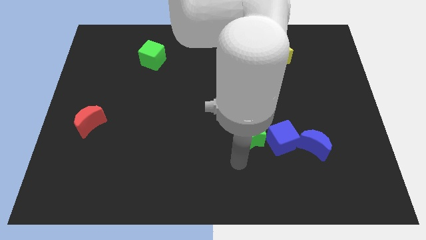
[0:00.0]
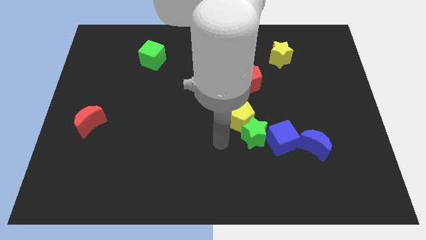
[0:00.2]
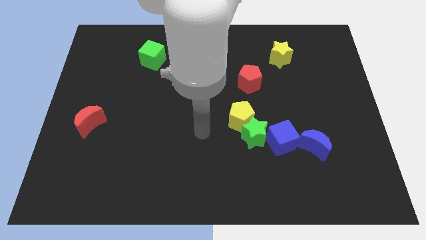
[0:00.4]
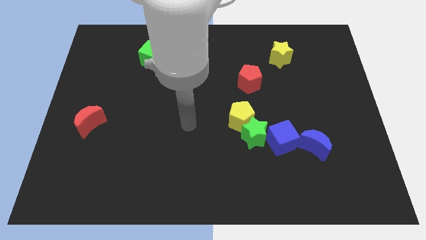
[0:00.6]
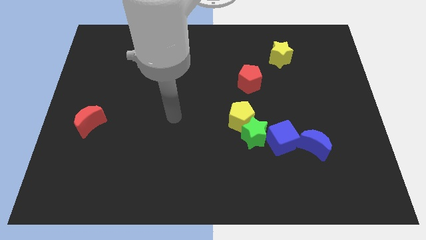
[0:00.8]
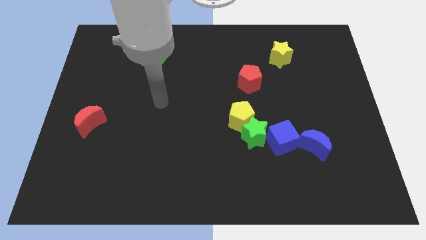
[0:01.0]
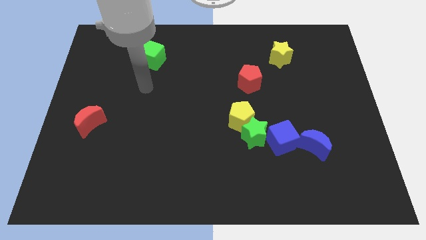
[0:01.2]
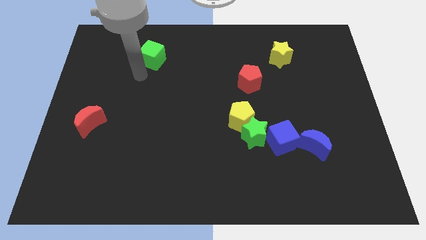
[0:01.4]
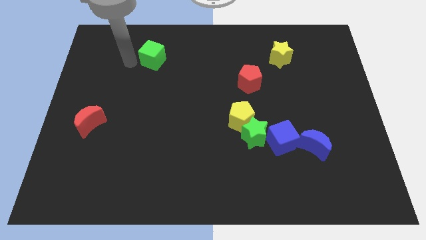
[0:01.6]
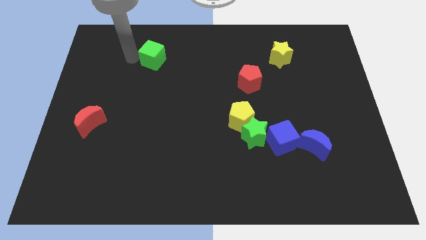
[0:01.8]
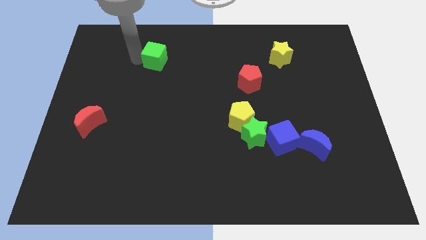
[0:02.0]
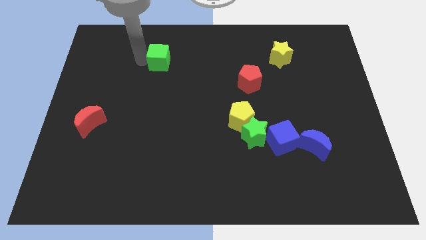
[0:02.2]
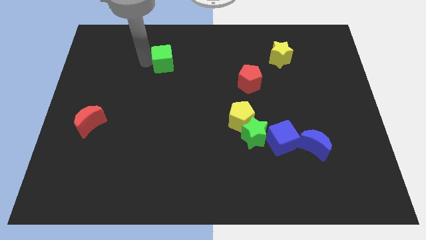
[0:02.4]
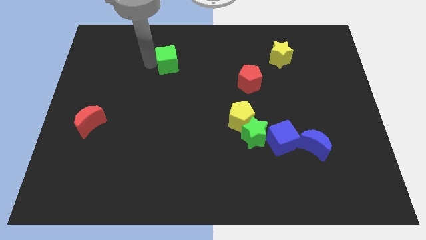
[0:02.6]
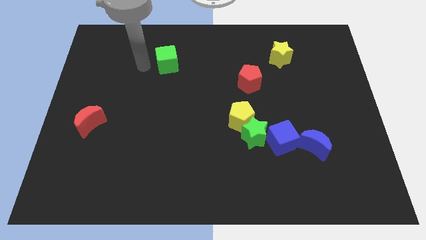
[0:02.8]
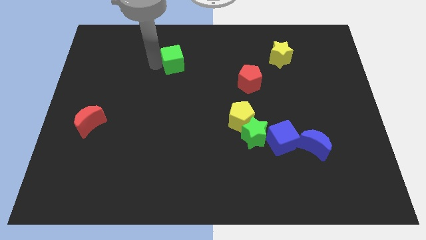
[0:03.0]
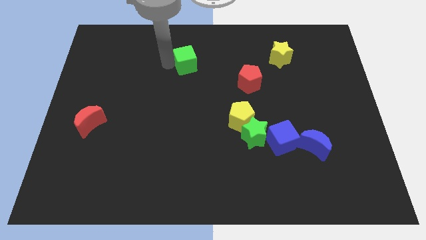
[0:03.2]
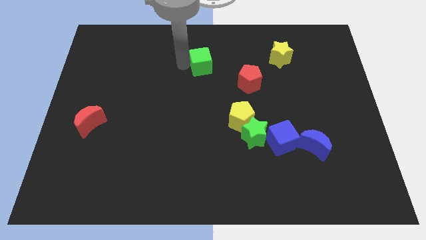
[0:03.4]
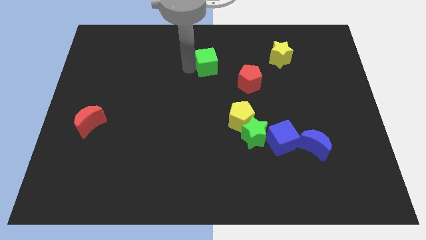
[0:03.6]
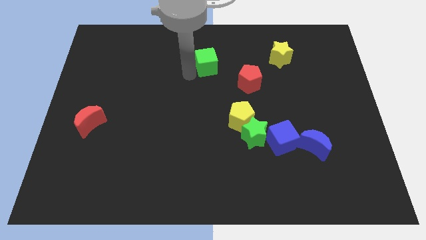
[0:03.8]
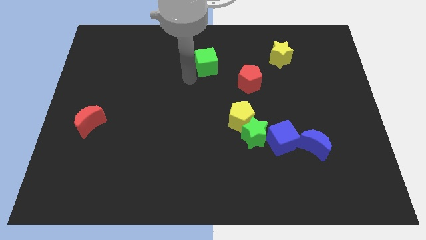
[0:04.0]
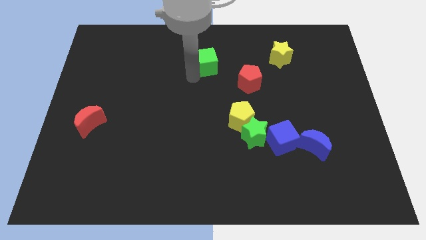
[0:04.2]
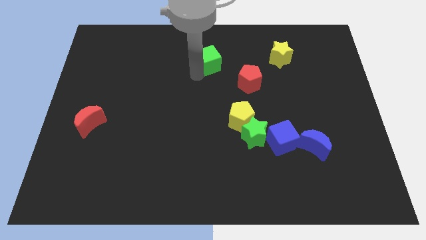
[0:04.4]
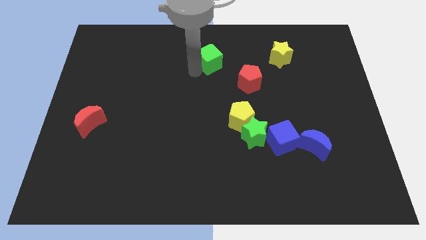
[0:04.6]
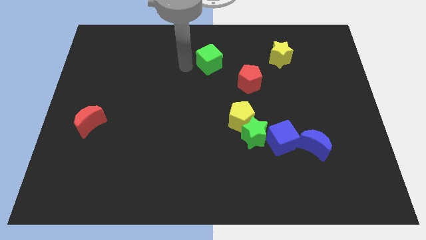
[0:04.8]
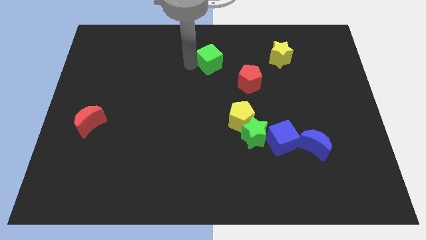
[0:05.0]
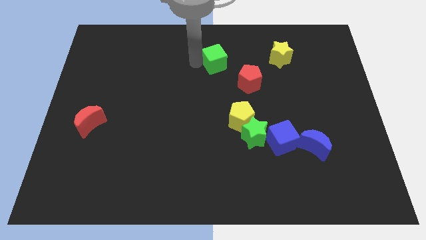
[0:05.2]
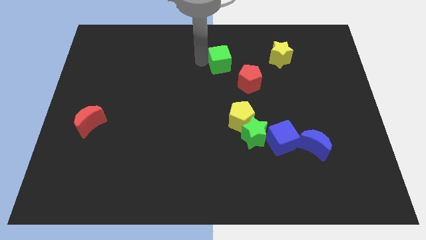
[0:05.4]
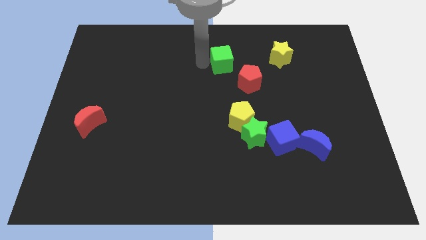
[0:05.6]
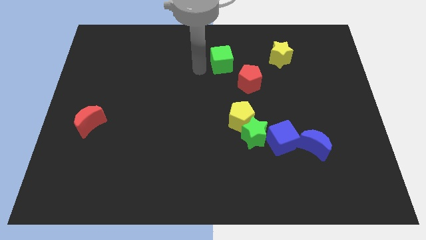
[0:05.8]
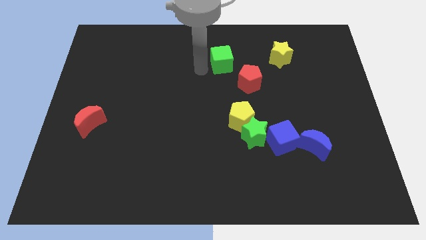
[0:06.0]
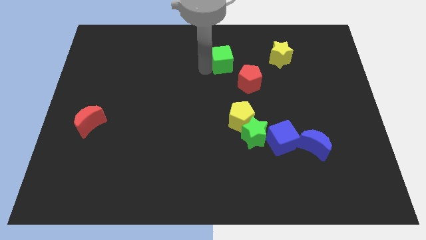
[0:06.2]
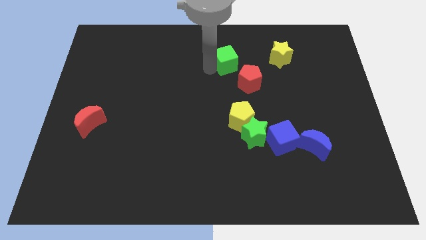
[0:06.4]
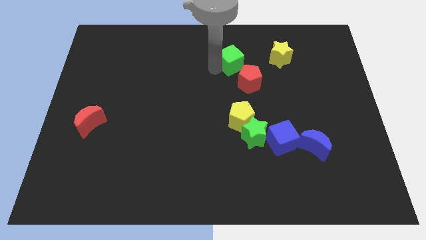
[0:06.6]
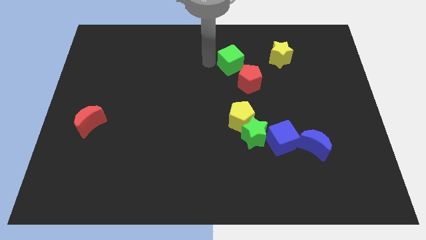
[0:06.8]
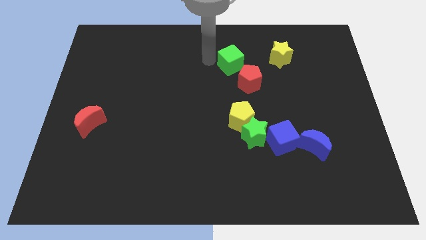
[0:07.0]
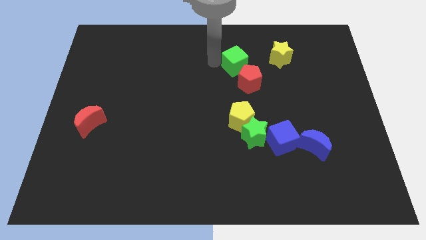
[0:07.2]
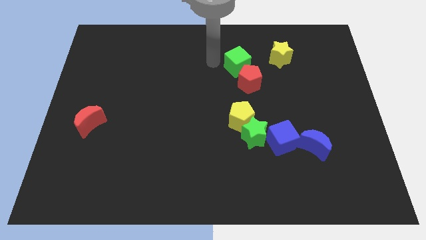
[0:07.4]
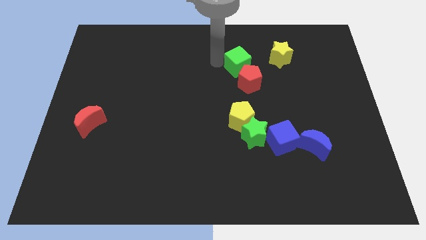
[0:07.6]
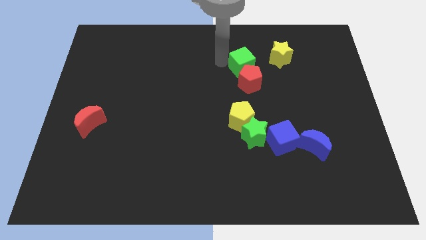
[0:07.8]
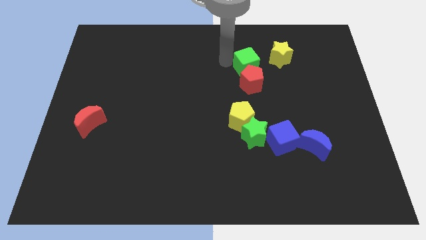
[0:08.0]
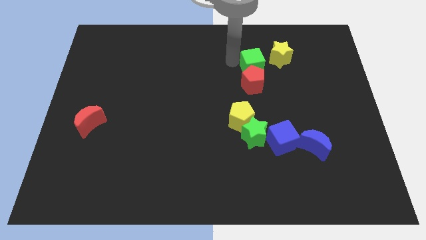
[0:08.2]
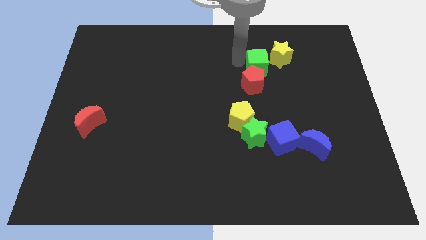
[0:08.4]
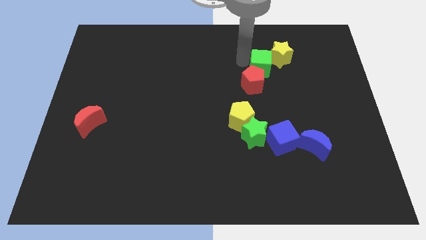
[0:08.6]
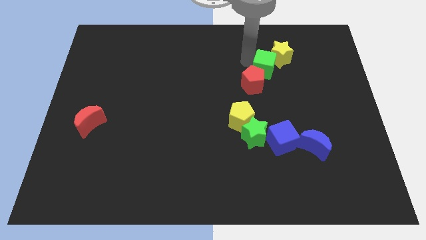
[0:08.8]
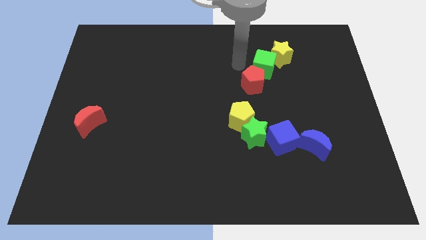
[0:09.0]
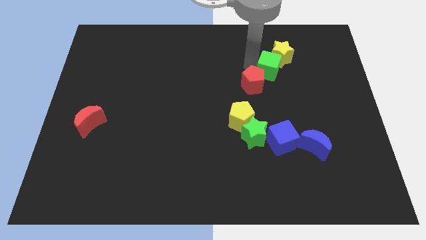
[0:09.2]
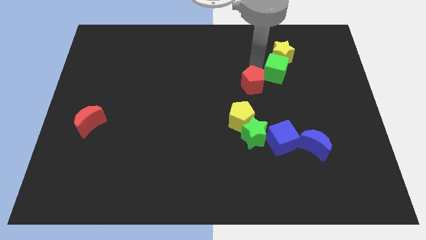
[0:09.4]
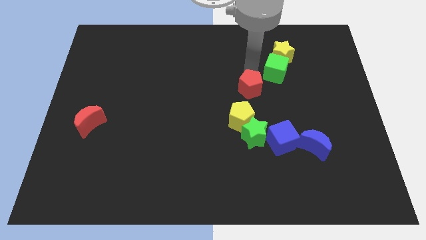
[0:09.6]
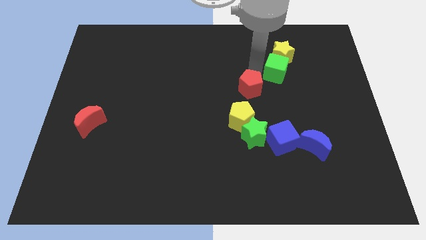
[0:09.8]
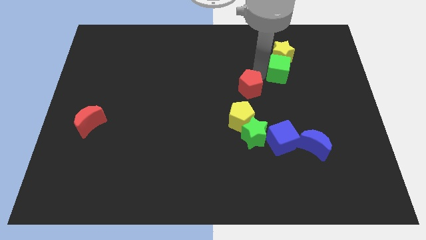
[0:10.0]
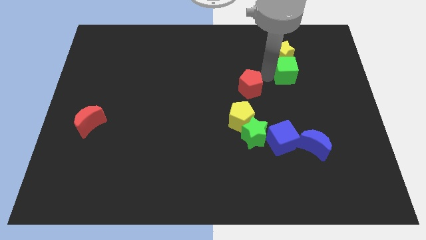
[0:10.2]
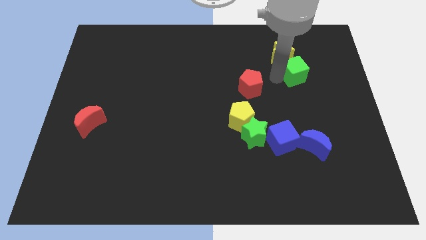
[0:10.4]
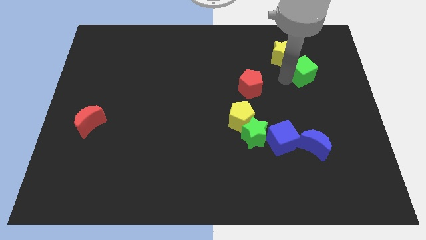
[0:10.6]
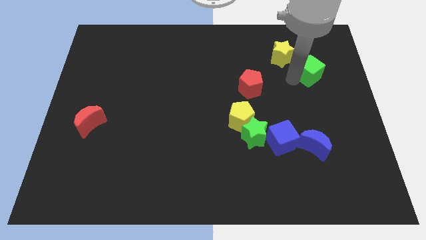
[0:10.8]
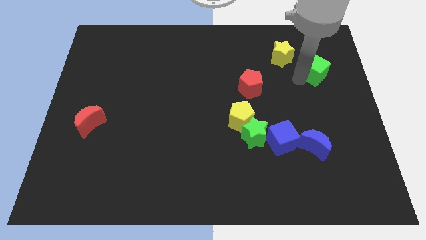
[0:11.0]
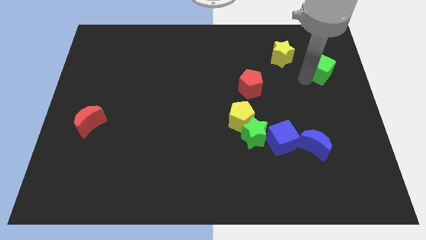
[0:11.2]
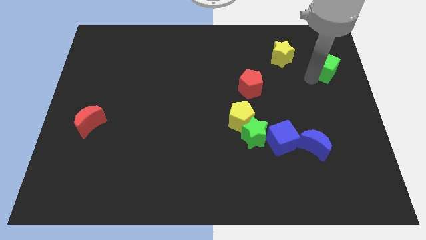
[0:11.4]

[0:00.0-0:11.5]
push the green cube to the right of the yellow star

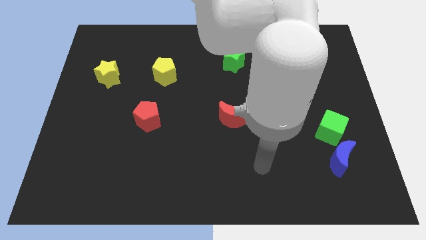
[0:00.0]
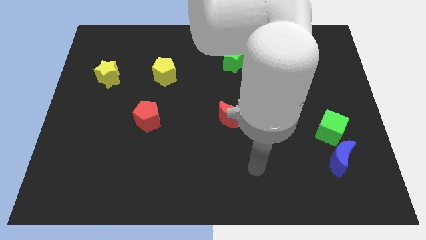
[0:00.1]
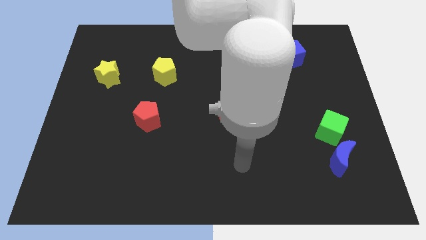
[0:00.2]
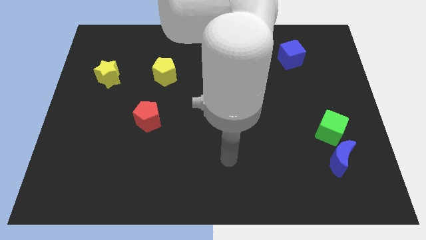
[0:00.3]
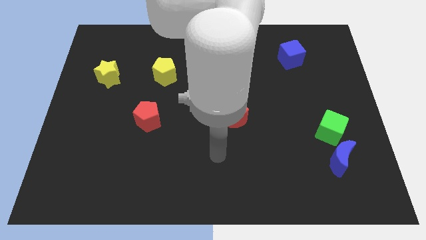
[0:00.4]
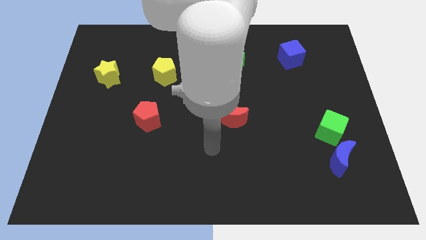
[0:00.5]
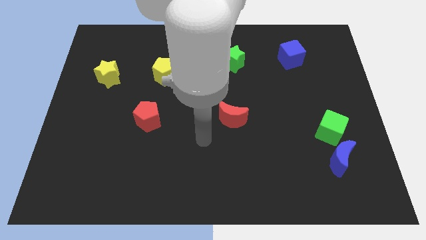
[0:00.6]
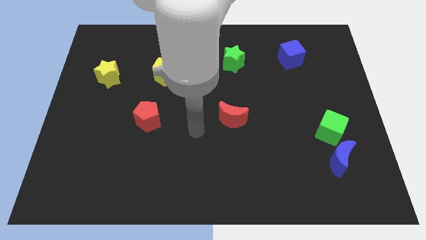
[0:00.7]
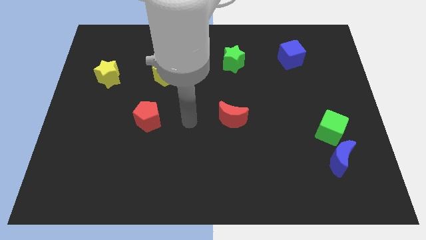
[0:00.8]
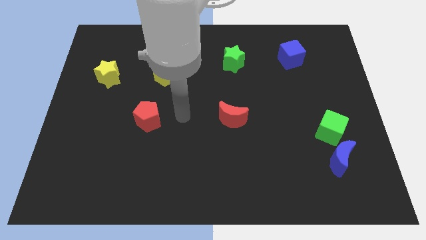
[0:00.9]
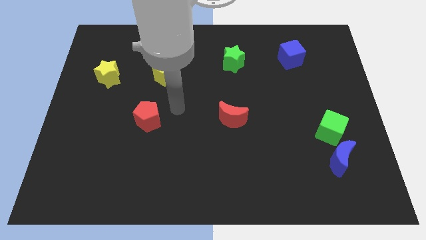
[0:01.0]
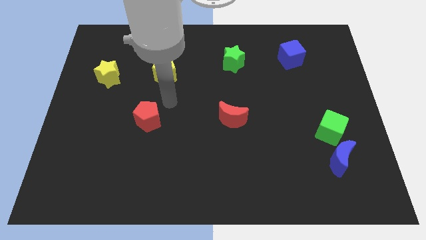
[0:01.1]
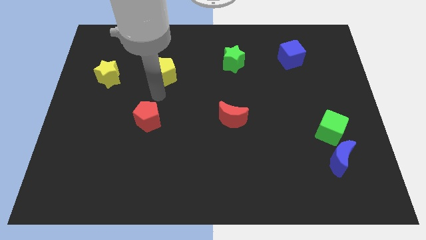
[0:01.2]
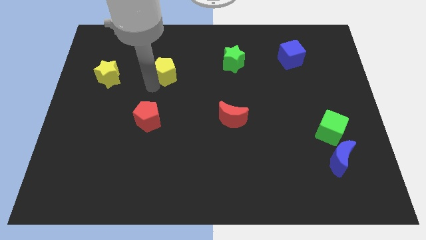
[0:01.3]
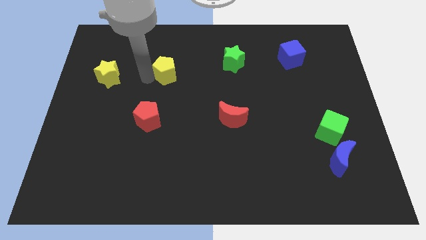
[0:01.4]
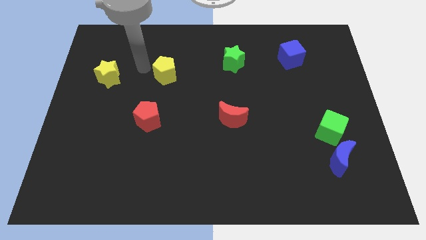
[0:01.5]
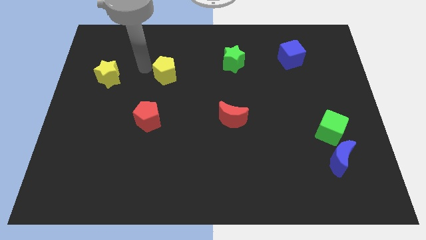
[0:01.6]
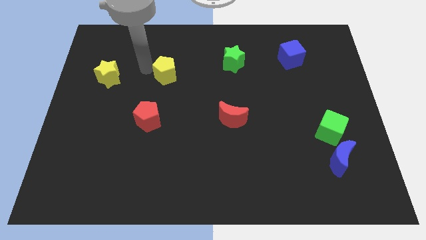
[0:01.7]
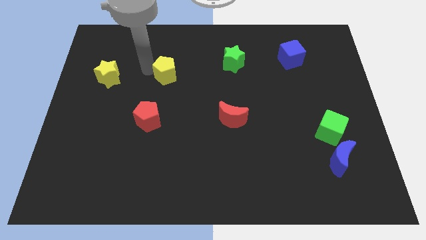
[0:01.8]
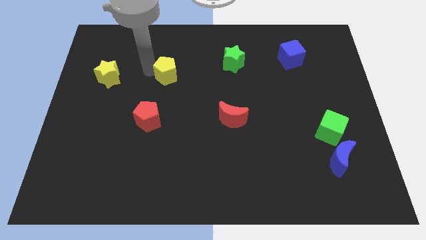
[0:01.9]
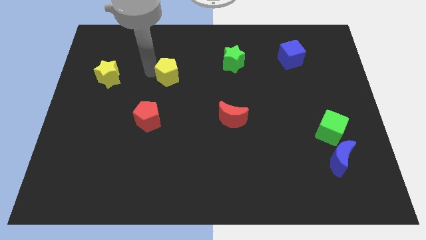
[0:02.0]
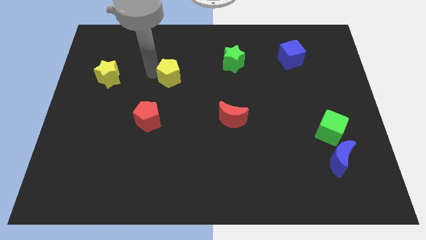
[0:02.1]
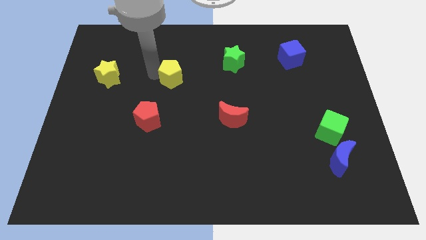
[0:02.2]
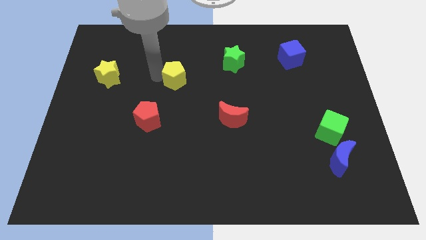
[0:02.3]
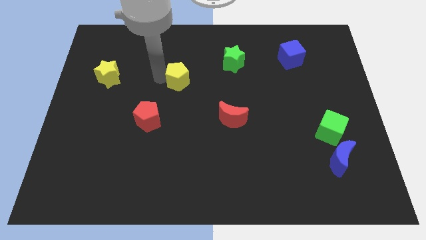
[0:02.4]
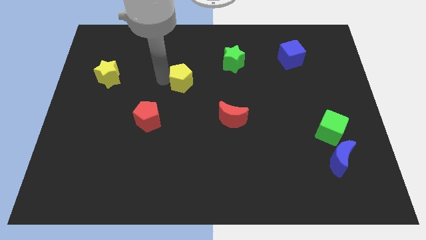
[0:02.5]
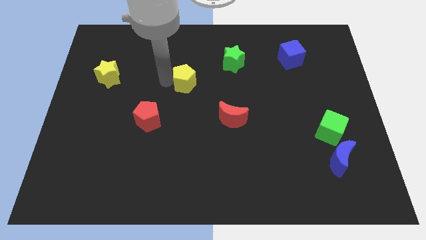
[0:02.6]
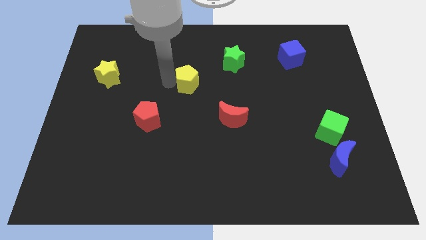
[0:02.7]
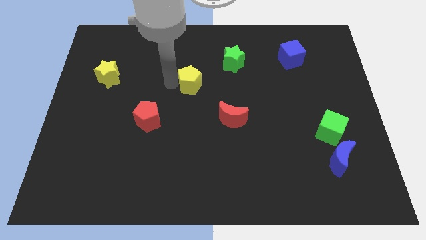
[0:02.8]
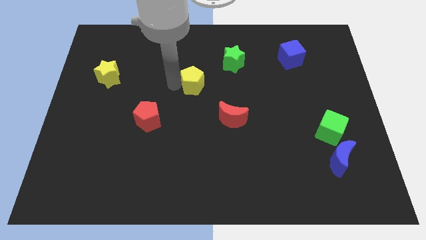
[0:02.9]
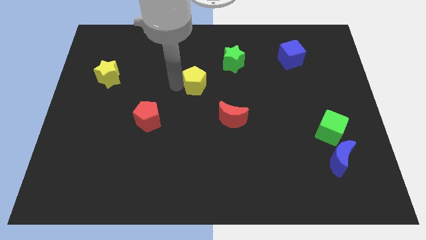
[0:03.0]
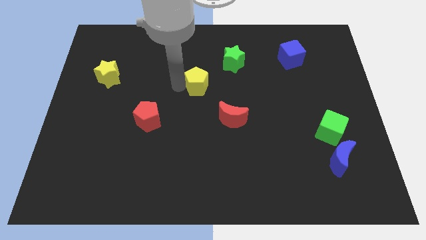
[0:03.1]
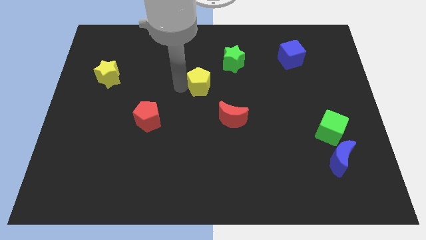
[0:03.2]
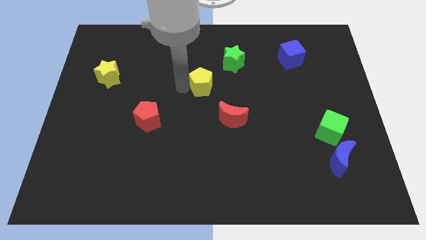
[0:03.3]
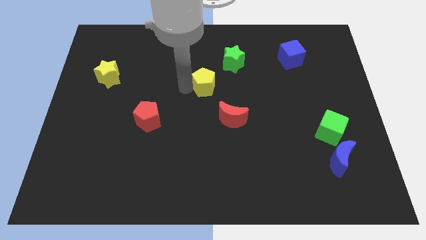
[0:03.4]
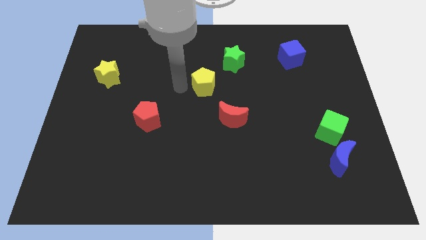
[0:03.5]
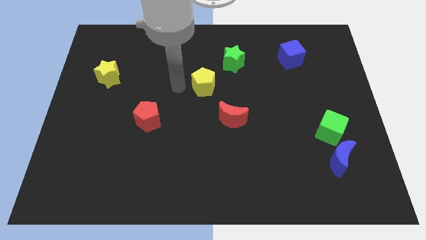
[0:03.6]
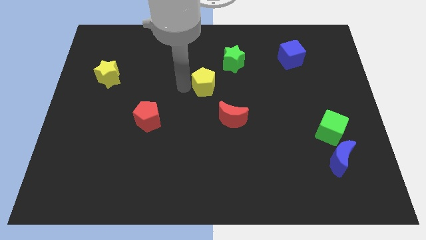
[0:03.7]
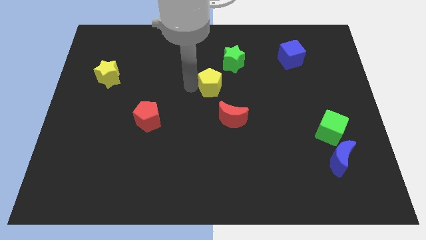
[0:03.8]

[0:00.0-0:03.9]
put the yellow pentagon to the top side of the red moon
